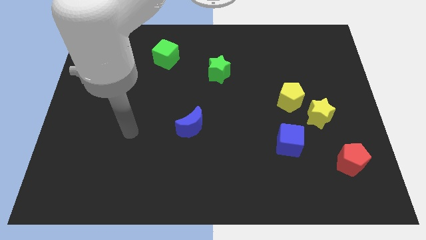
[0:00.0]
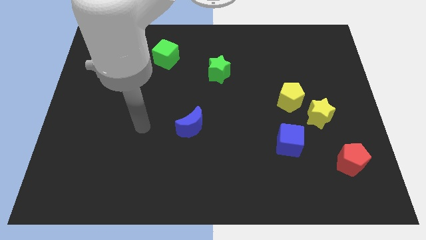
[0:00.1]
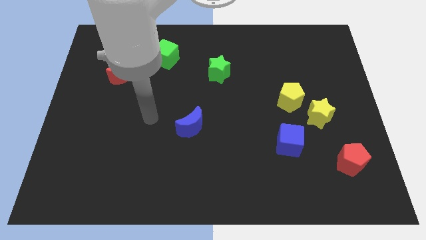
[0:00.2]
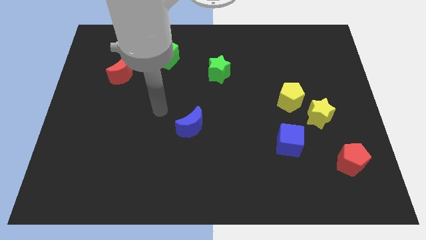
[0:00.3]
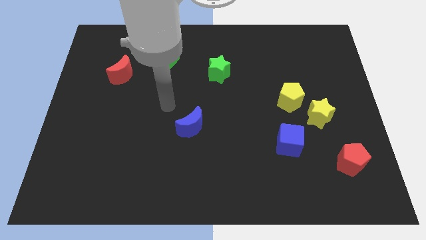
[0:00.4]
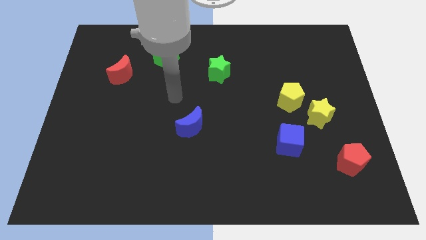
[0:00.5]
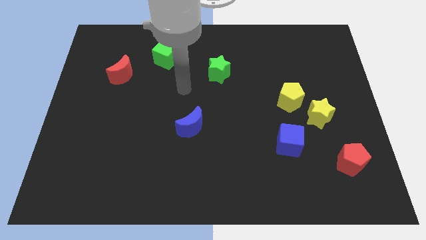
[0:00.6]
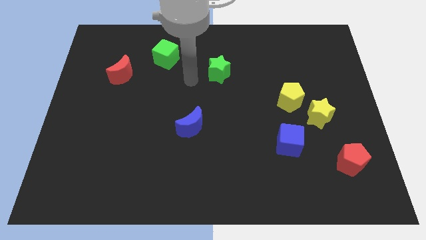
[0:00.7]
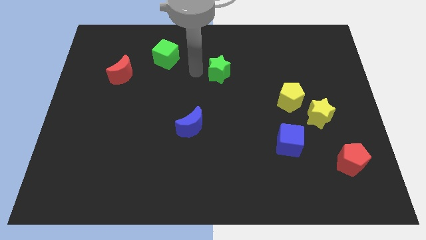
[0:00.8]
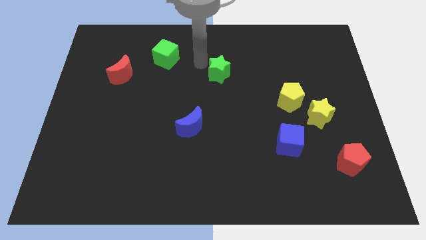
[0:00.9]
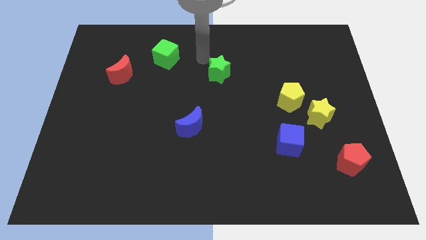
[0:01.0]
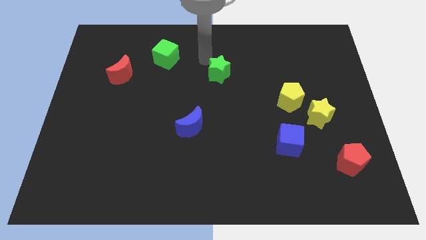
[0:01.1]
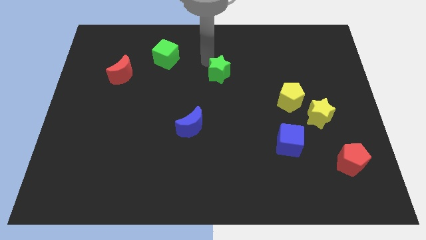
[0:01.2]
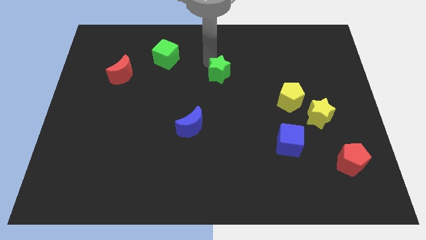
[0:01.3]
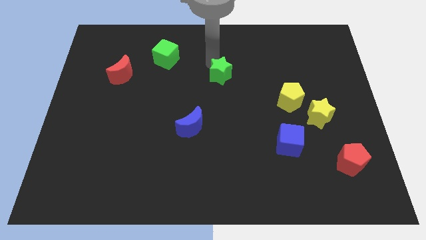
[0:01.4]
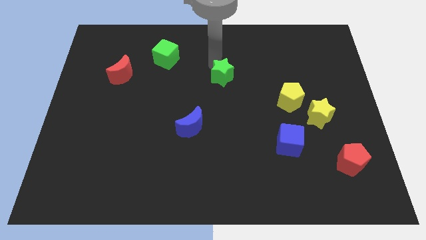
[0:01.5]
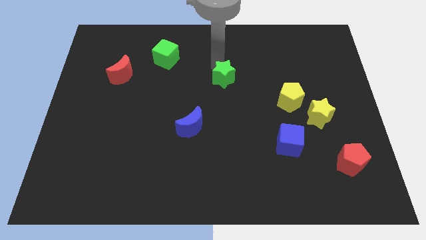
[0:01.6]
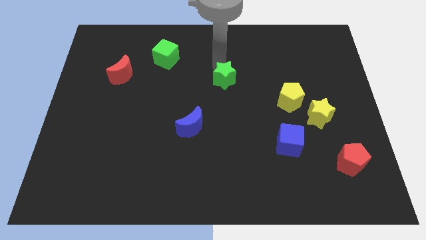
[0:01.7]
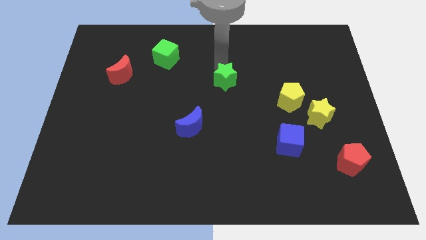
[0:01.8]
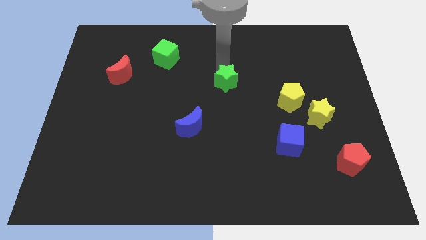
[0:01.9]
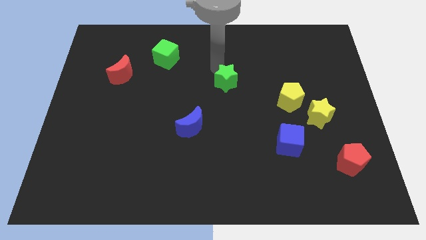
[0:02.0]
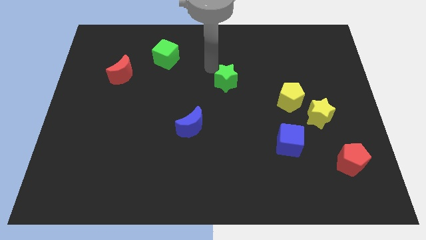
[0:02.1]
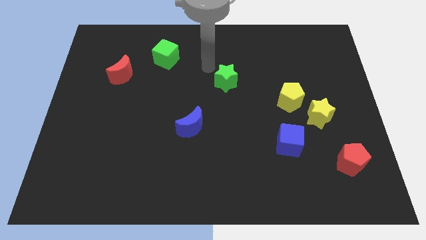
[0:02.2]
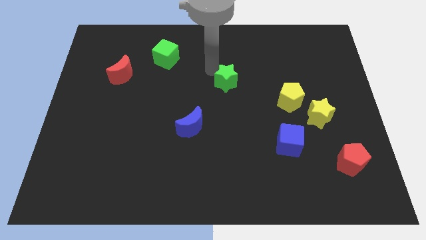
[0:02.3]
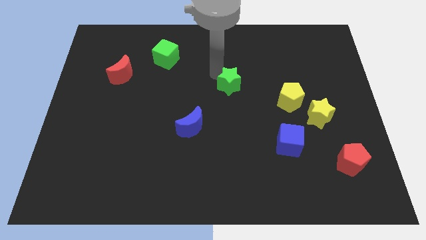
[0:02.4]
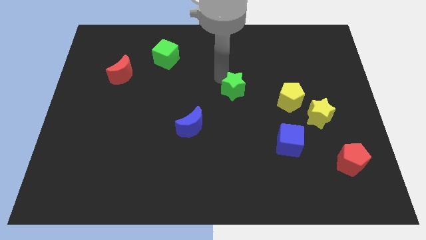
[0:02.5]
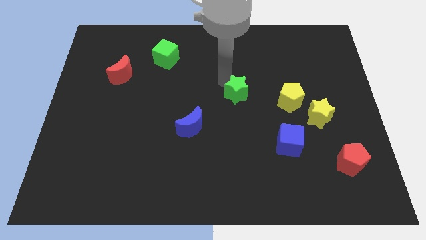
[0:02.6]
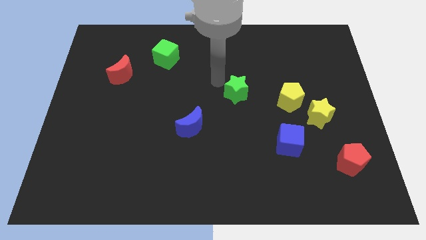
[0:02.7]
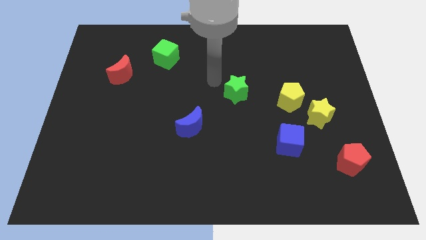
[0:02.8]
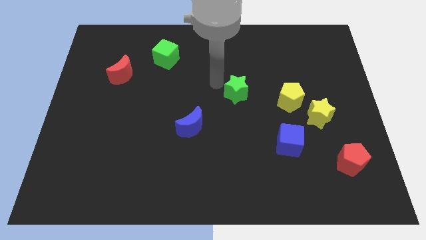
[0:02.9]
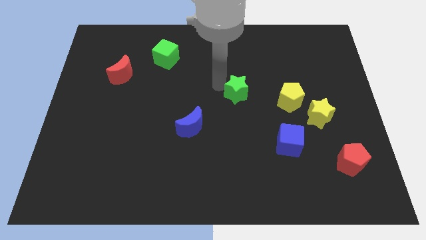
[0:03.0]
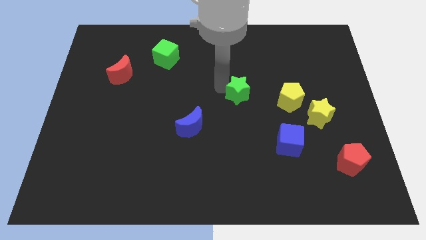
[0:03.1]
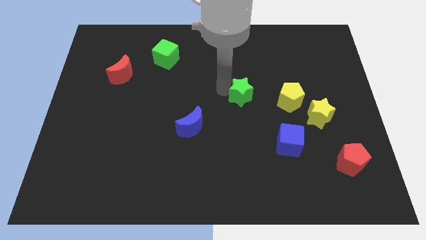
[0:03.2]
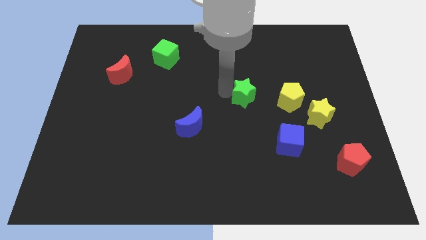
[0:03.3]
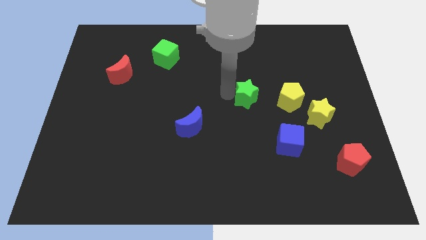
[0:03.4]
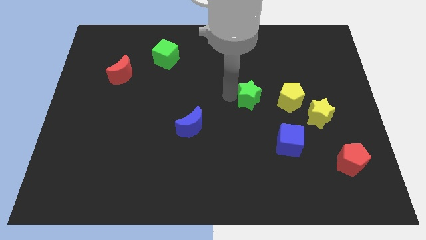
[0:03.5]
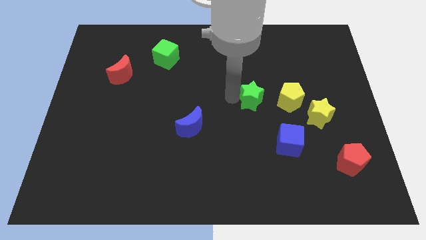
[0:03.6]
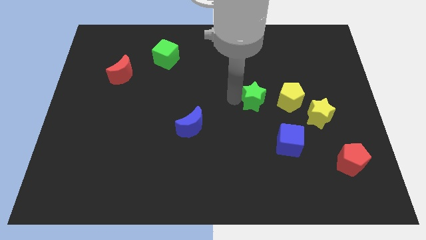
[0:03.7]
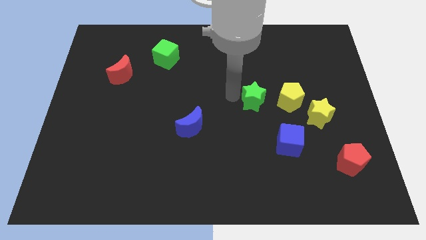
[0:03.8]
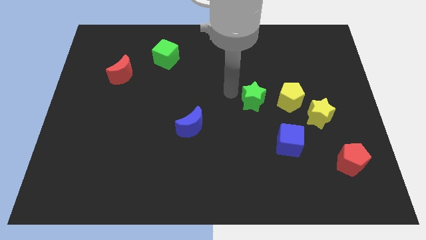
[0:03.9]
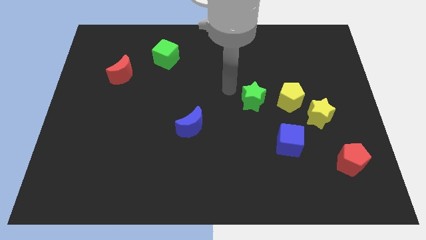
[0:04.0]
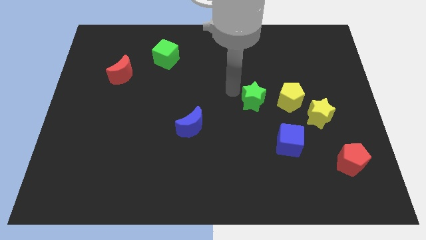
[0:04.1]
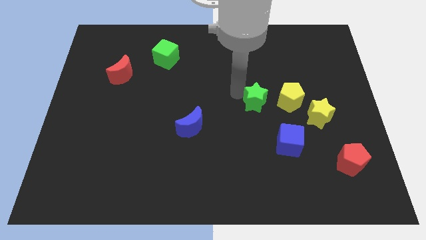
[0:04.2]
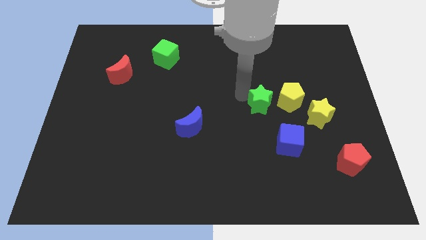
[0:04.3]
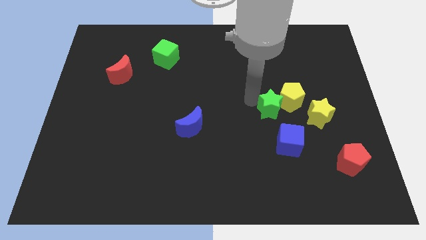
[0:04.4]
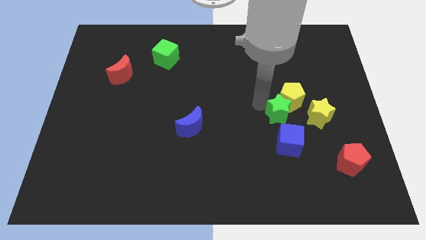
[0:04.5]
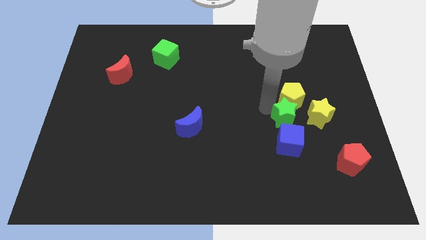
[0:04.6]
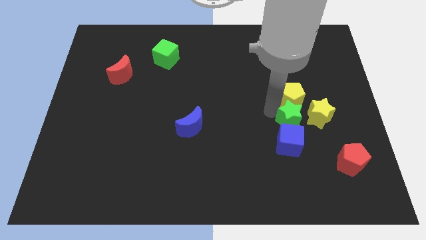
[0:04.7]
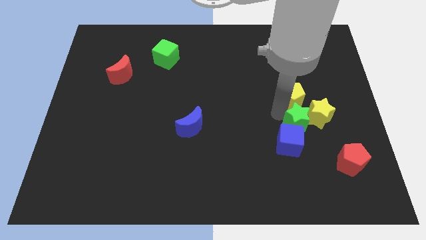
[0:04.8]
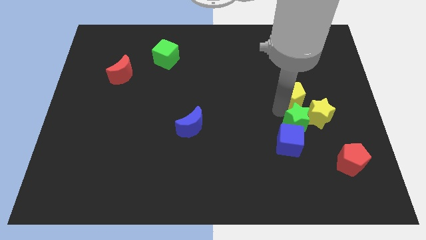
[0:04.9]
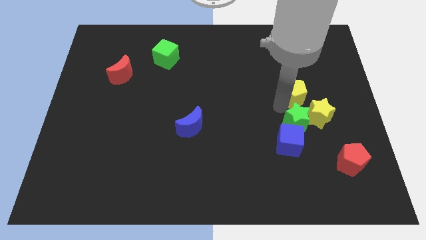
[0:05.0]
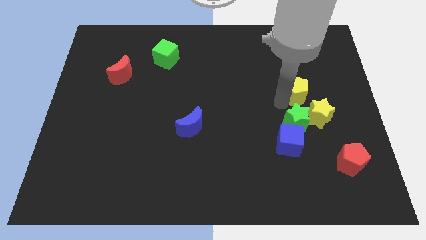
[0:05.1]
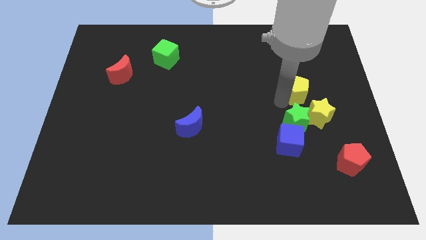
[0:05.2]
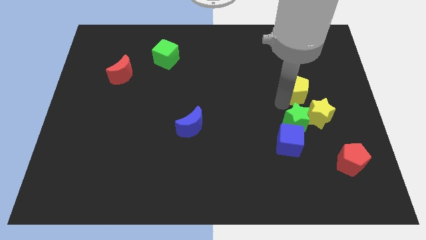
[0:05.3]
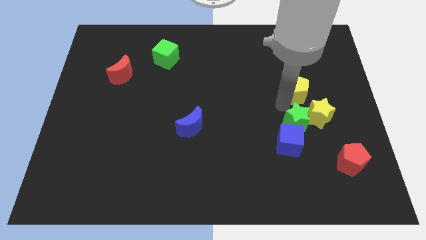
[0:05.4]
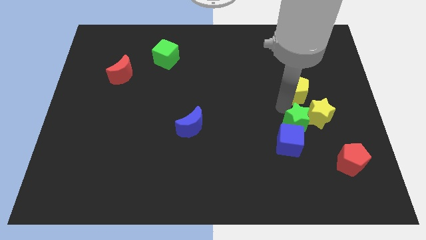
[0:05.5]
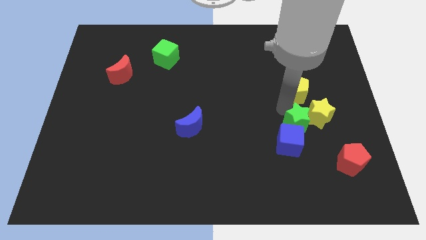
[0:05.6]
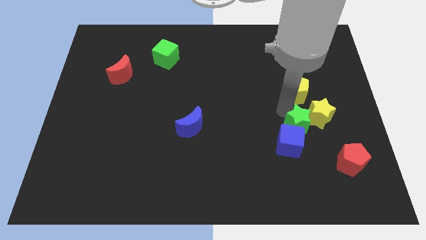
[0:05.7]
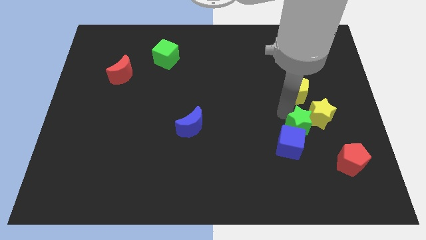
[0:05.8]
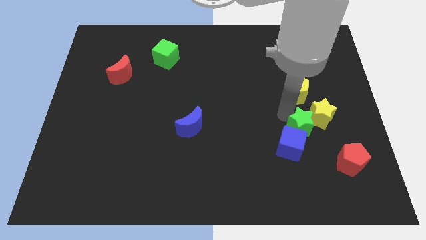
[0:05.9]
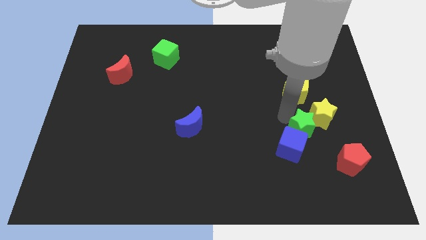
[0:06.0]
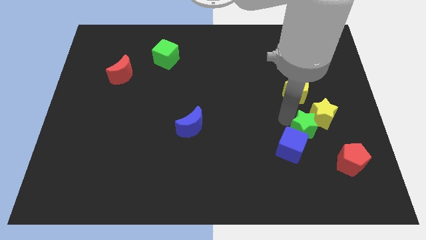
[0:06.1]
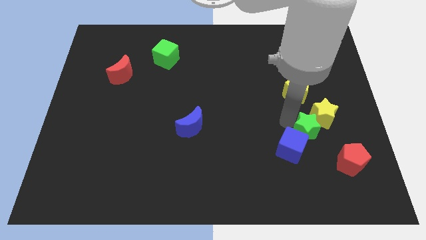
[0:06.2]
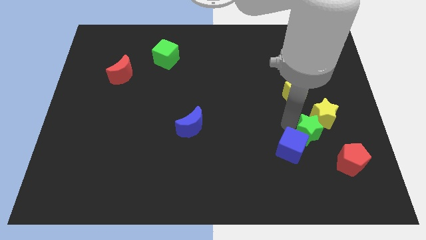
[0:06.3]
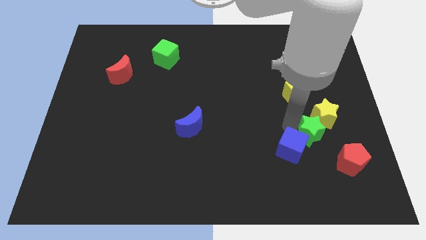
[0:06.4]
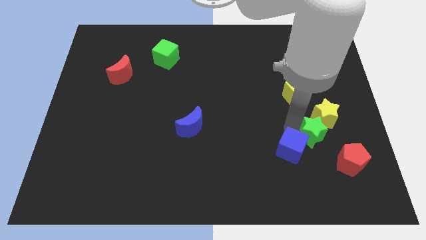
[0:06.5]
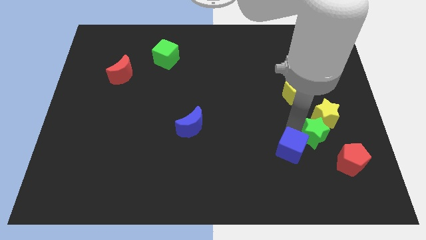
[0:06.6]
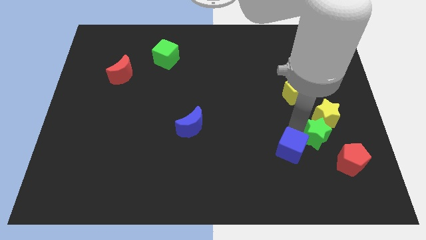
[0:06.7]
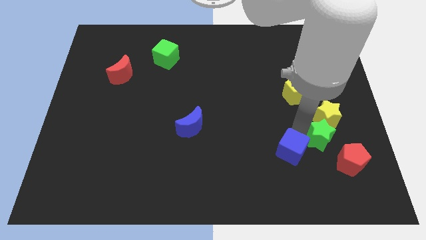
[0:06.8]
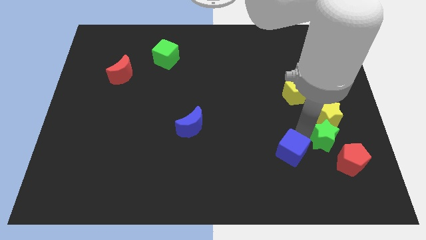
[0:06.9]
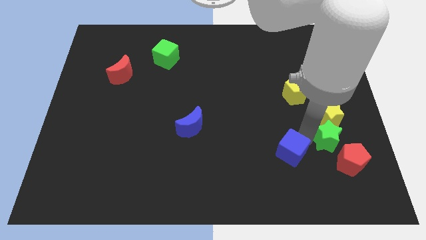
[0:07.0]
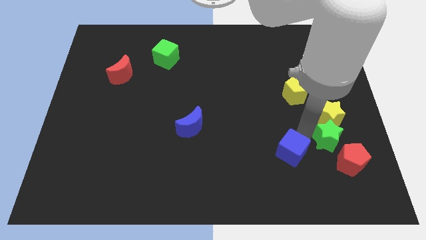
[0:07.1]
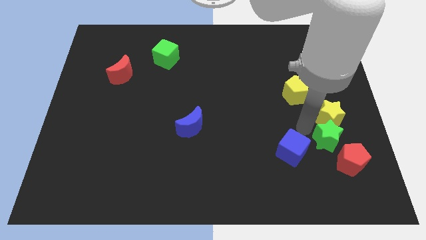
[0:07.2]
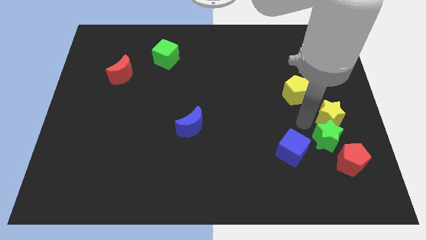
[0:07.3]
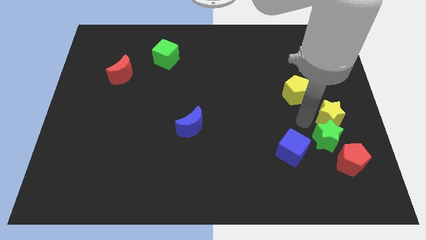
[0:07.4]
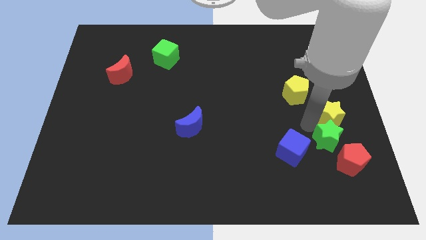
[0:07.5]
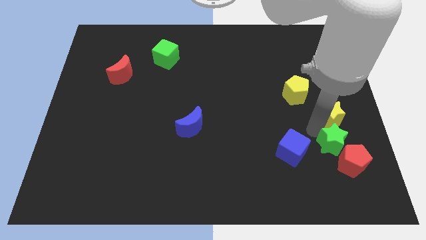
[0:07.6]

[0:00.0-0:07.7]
put the green star close to the red pentagon
